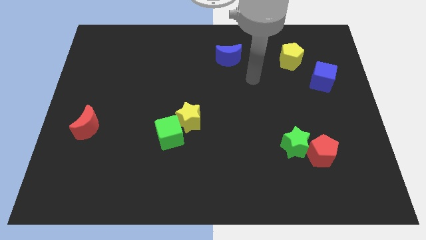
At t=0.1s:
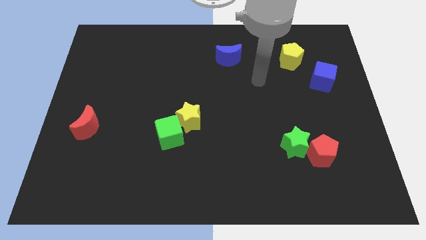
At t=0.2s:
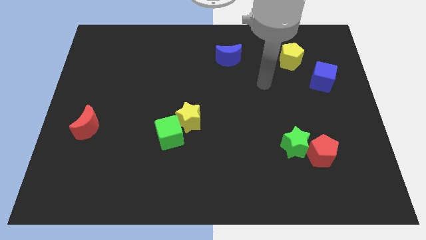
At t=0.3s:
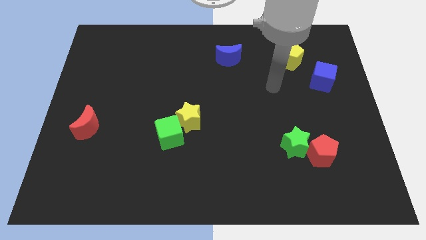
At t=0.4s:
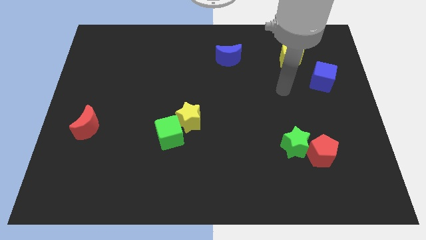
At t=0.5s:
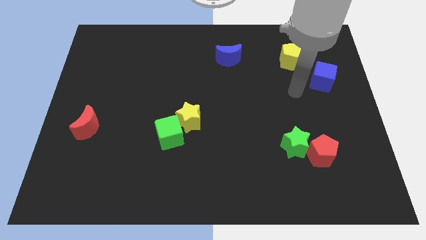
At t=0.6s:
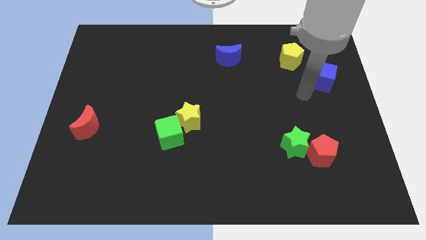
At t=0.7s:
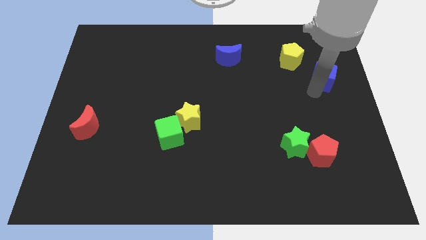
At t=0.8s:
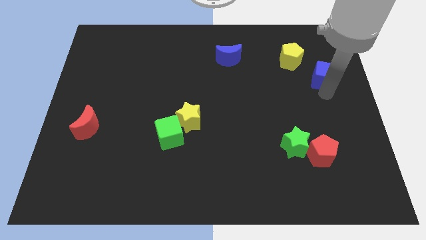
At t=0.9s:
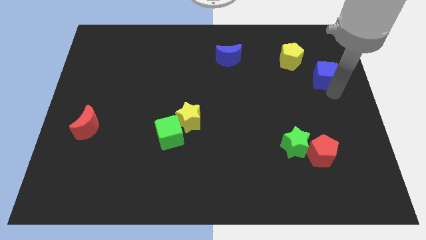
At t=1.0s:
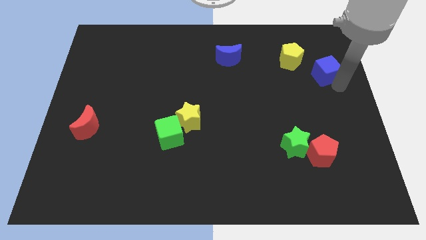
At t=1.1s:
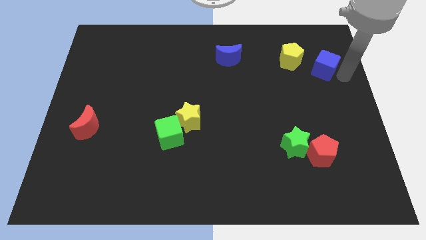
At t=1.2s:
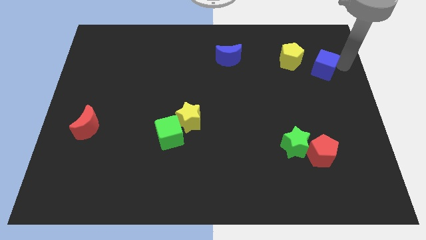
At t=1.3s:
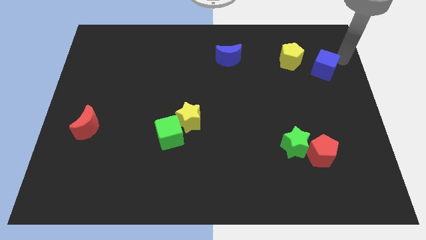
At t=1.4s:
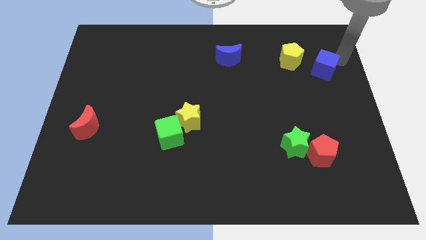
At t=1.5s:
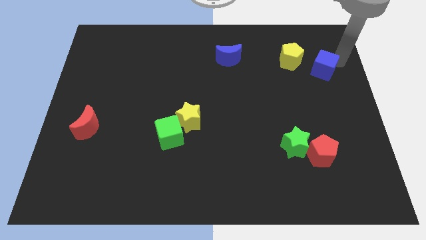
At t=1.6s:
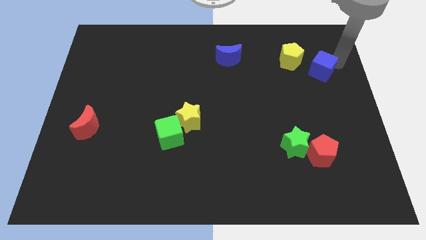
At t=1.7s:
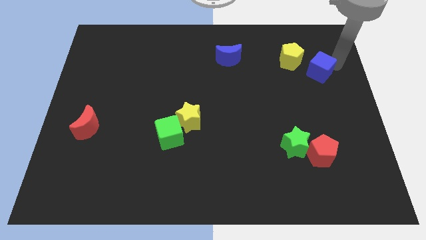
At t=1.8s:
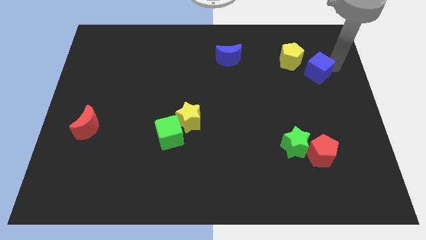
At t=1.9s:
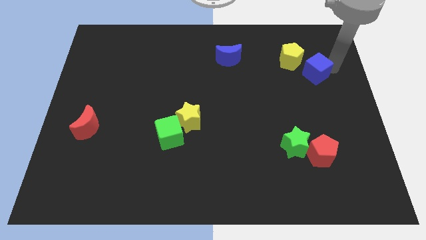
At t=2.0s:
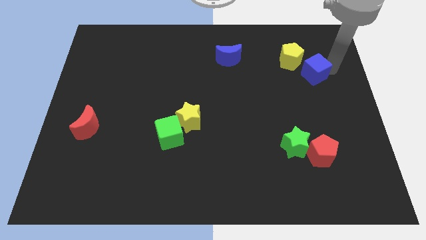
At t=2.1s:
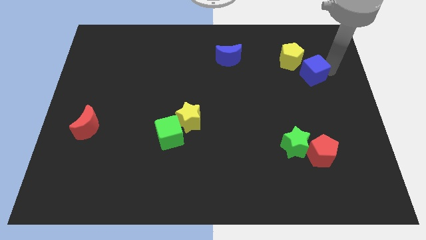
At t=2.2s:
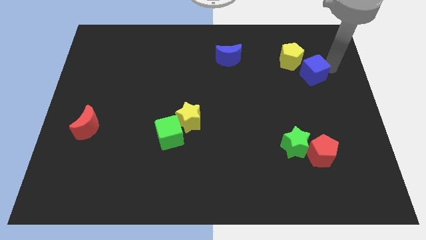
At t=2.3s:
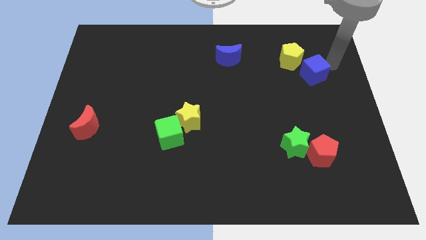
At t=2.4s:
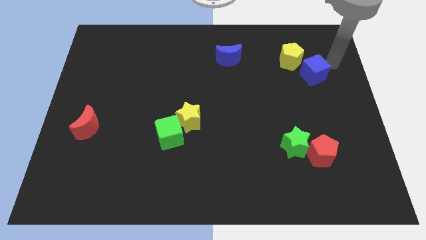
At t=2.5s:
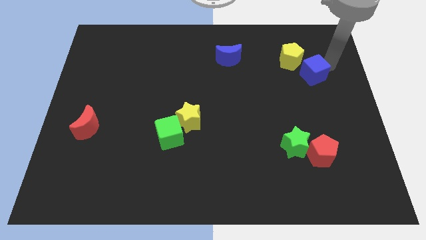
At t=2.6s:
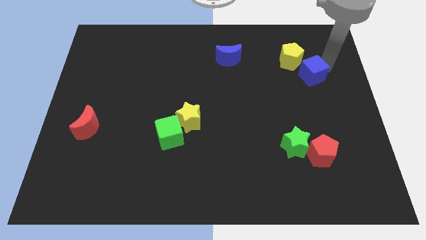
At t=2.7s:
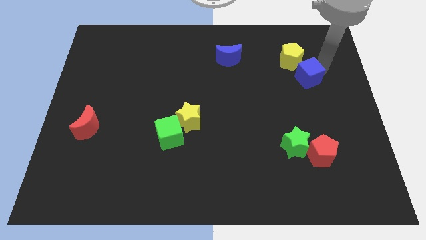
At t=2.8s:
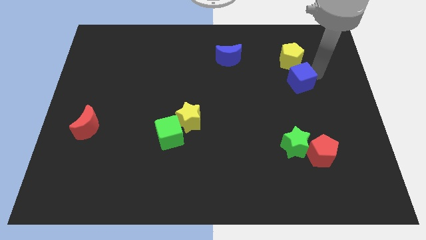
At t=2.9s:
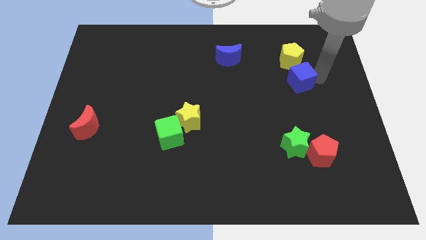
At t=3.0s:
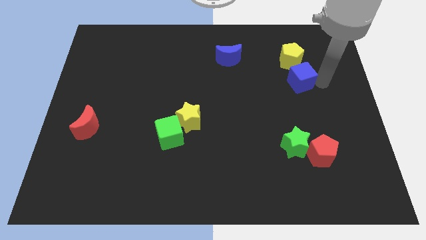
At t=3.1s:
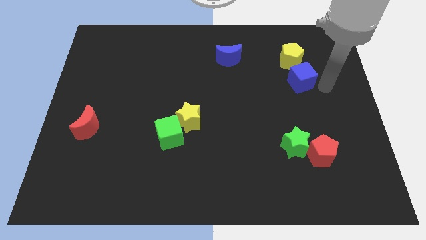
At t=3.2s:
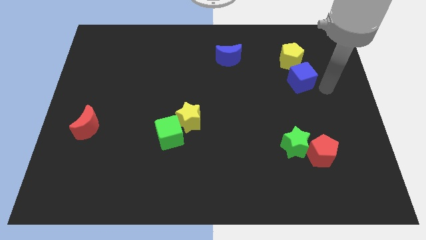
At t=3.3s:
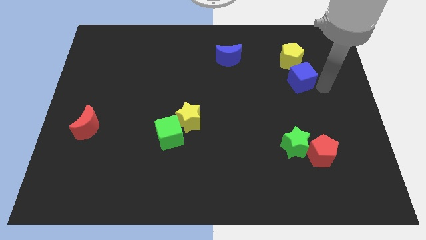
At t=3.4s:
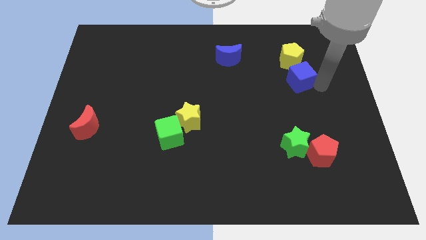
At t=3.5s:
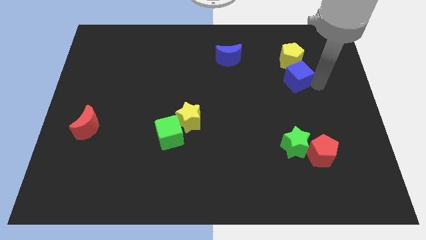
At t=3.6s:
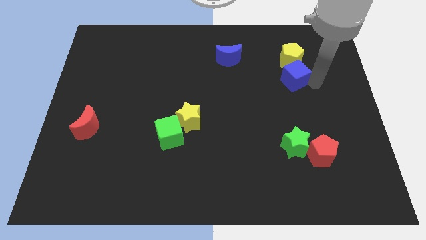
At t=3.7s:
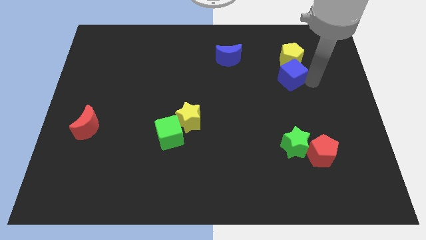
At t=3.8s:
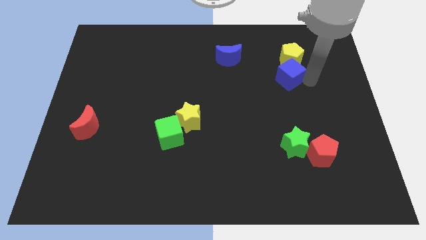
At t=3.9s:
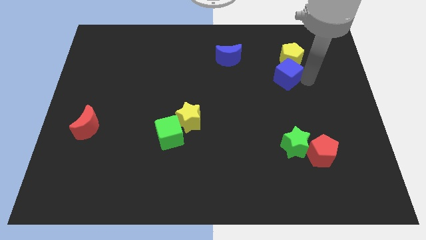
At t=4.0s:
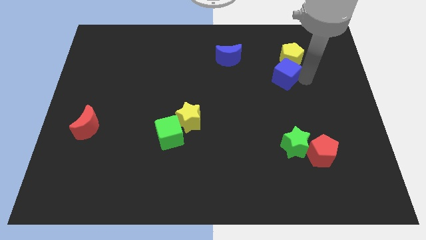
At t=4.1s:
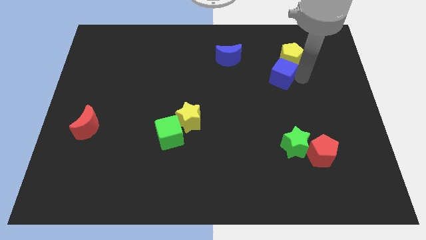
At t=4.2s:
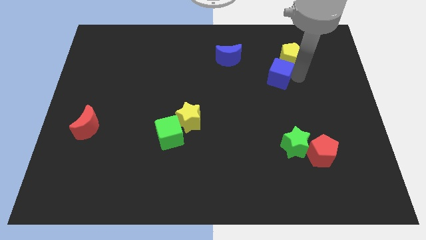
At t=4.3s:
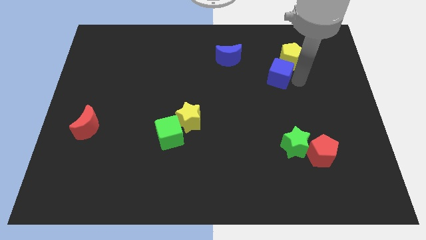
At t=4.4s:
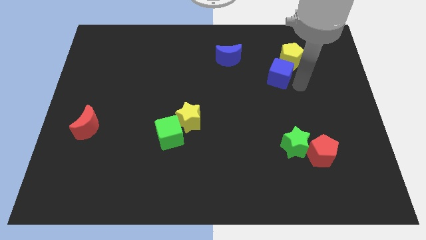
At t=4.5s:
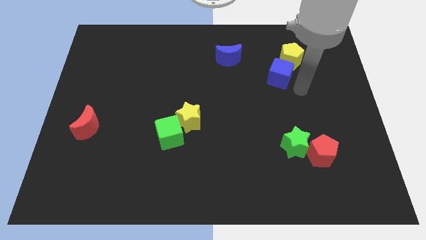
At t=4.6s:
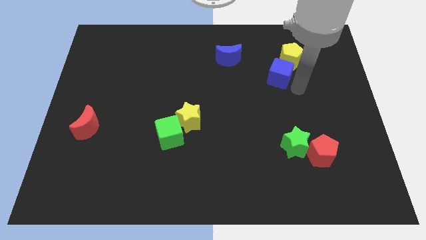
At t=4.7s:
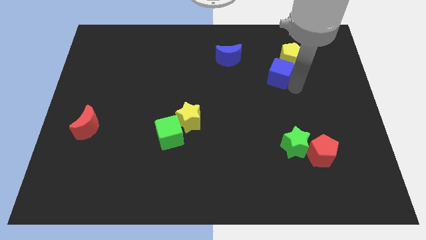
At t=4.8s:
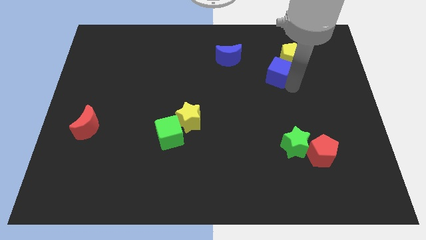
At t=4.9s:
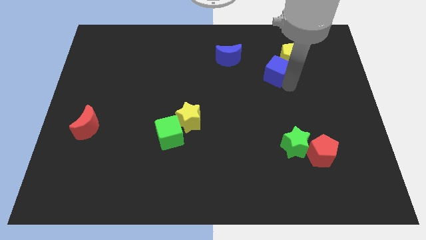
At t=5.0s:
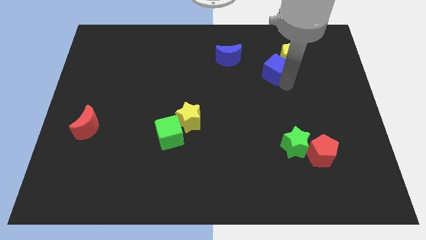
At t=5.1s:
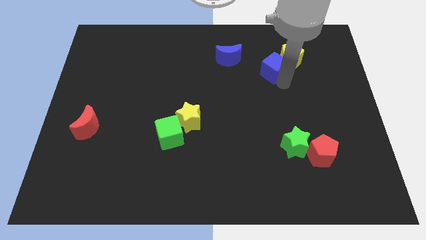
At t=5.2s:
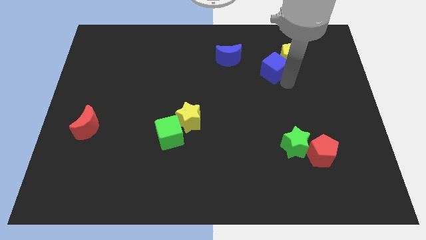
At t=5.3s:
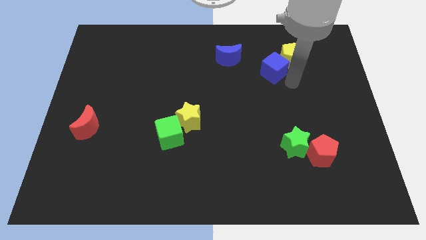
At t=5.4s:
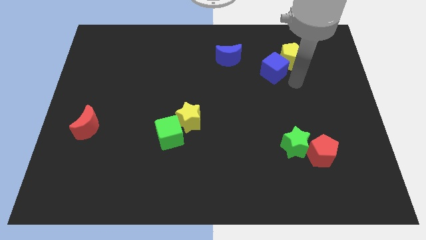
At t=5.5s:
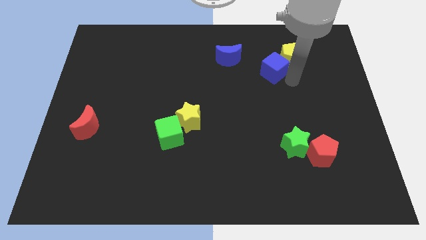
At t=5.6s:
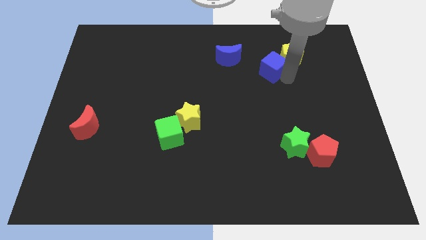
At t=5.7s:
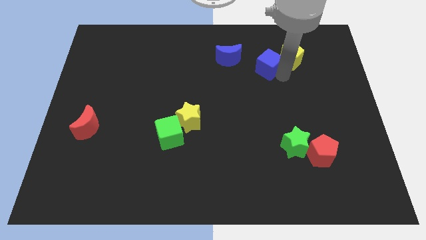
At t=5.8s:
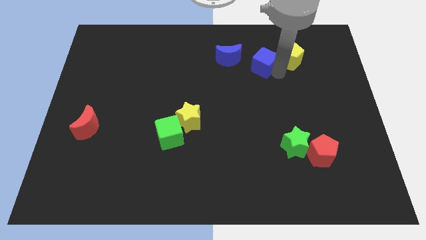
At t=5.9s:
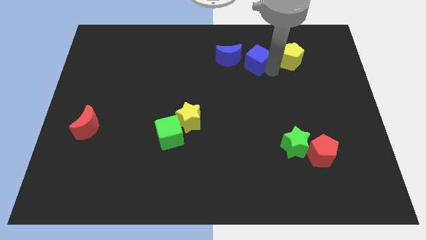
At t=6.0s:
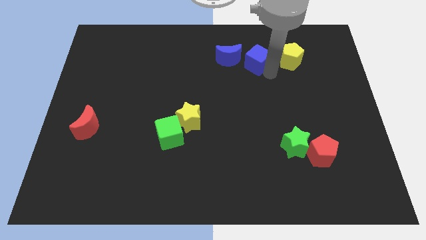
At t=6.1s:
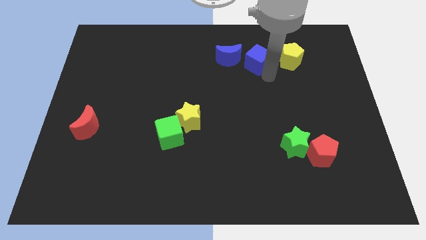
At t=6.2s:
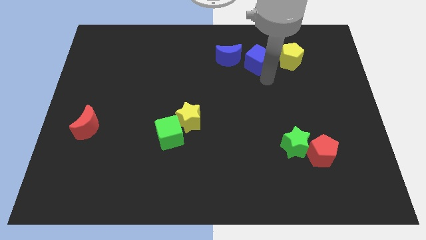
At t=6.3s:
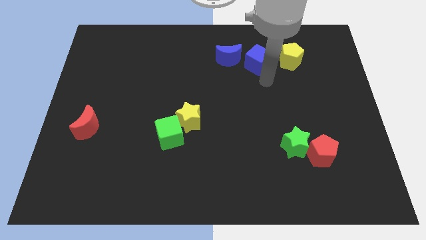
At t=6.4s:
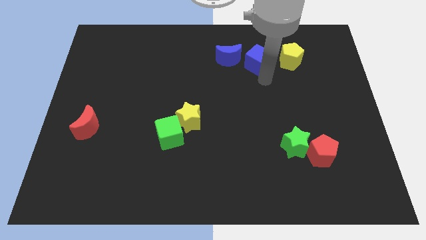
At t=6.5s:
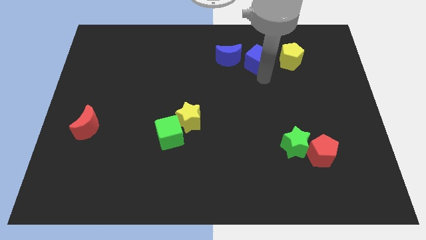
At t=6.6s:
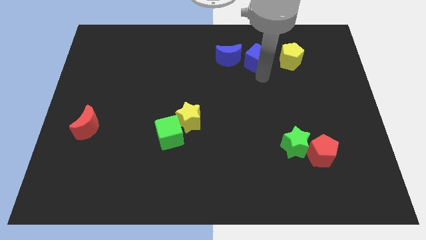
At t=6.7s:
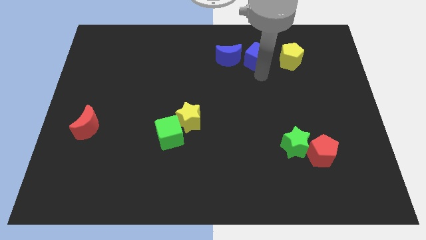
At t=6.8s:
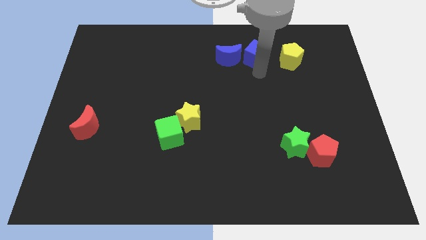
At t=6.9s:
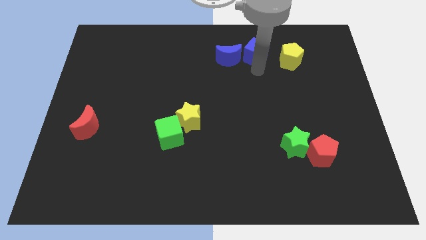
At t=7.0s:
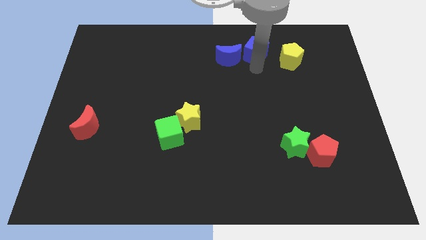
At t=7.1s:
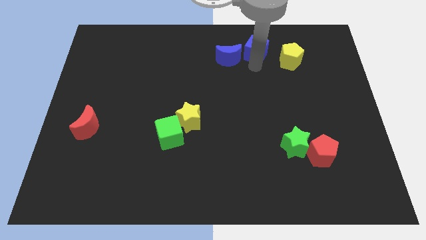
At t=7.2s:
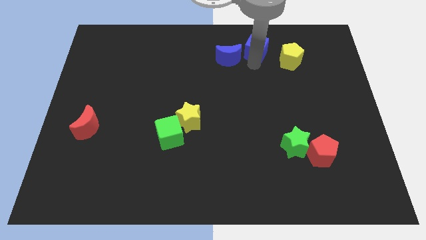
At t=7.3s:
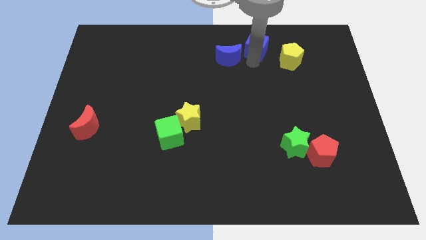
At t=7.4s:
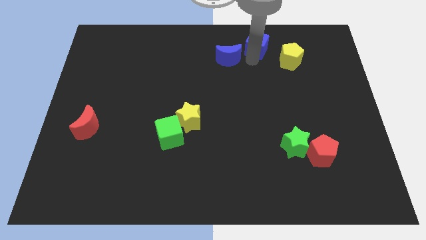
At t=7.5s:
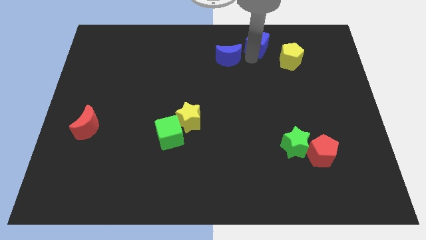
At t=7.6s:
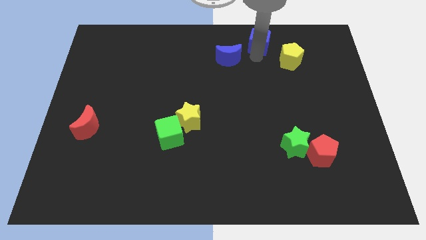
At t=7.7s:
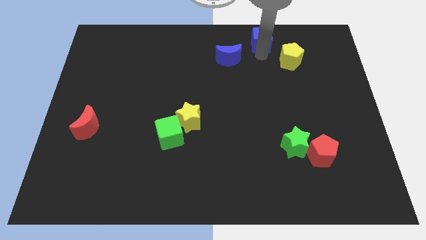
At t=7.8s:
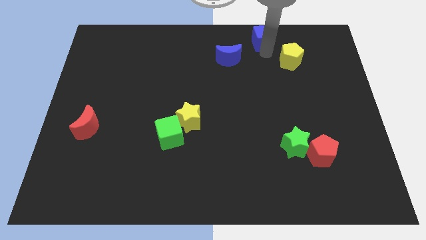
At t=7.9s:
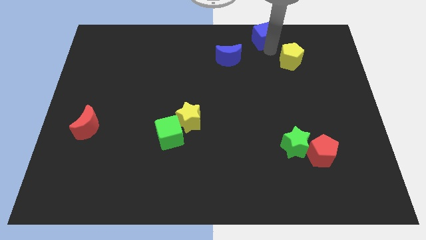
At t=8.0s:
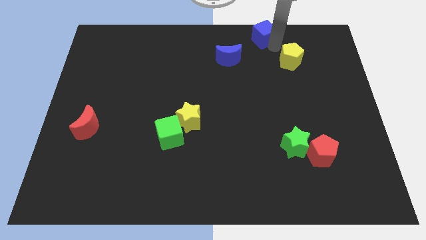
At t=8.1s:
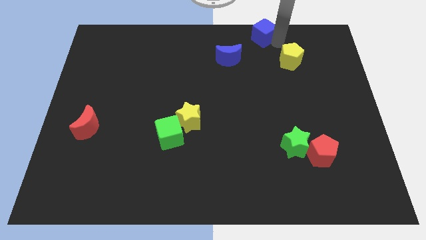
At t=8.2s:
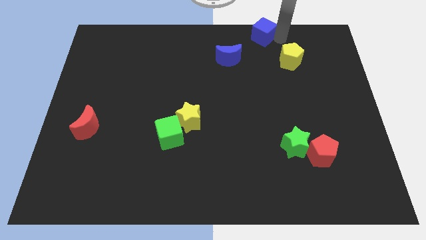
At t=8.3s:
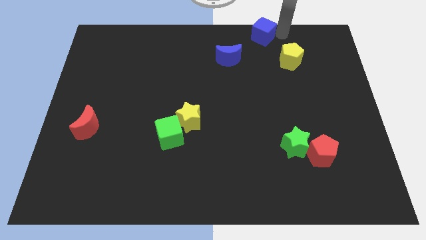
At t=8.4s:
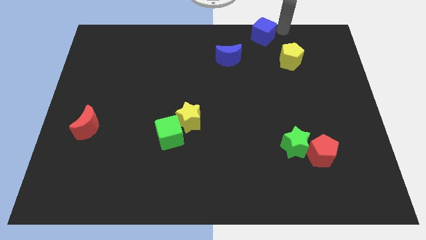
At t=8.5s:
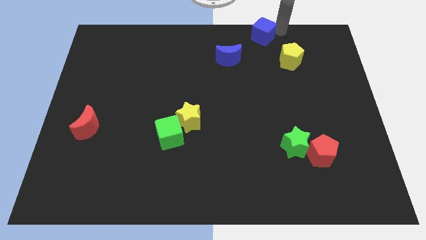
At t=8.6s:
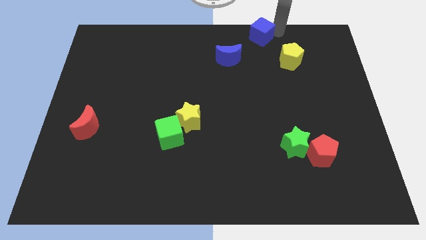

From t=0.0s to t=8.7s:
slide the blue cube to the towards your base
